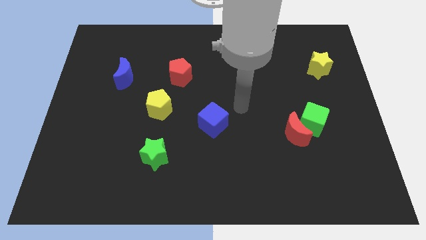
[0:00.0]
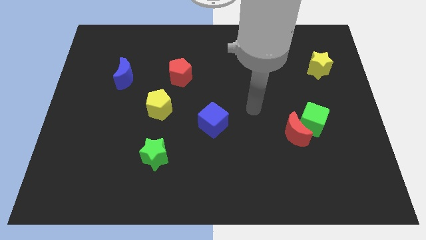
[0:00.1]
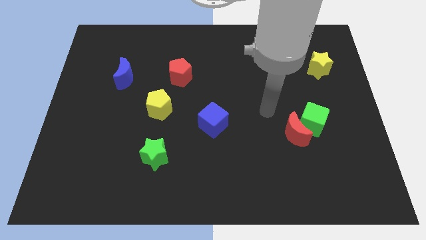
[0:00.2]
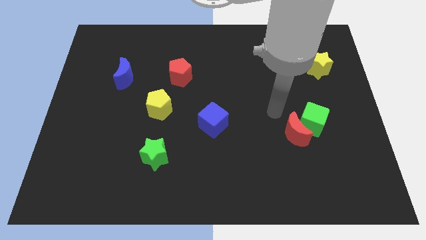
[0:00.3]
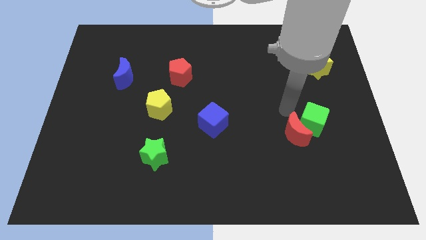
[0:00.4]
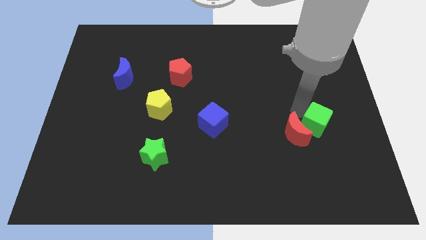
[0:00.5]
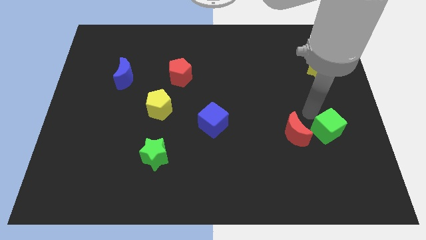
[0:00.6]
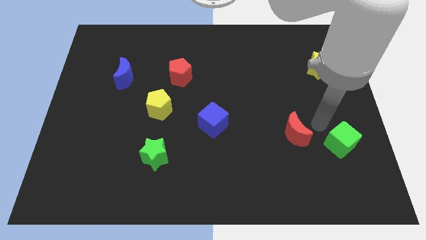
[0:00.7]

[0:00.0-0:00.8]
separate the red moon from the green cube

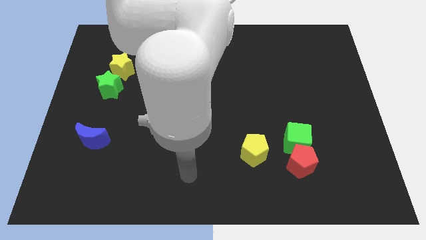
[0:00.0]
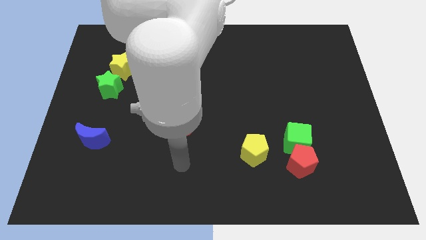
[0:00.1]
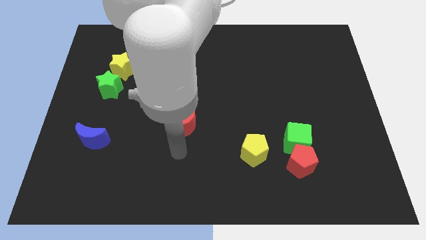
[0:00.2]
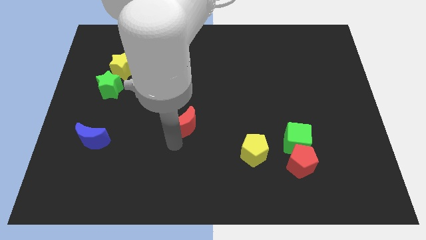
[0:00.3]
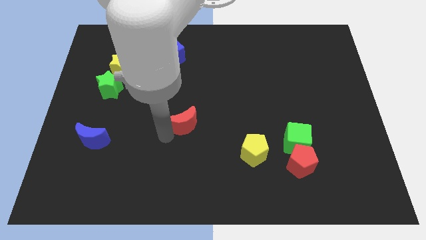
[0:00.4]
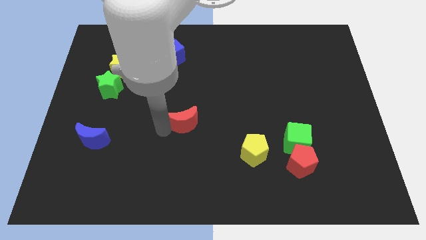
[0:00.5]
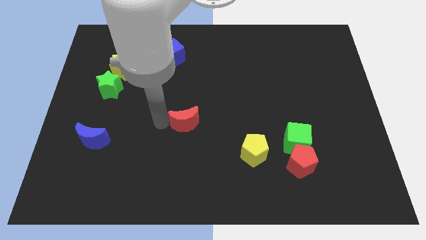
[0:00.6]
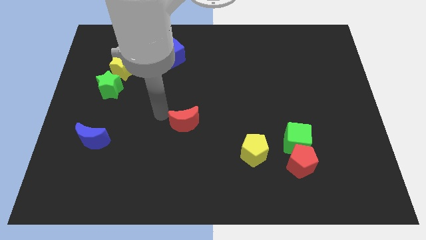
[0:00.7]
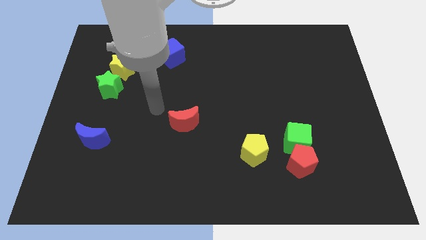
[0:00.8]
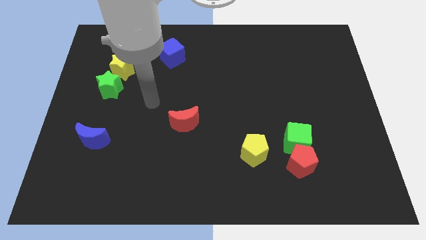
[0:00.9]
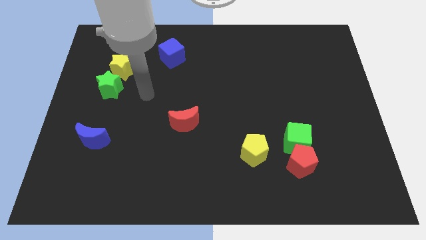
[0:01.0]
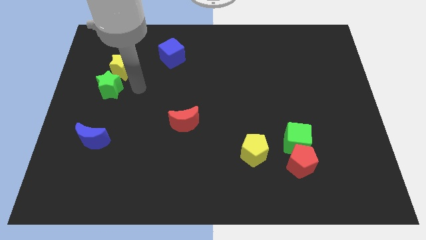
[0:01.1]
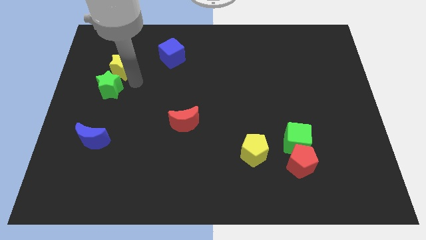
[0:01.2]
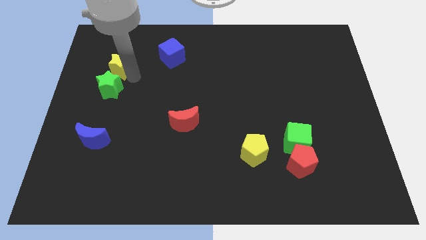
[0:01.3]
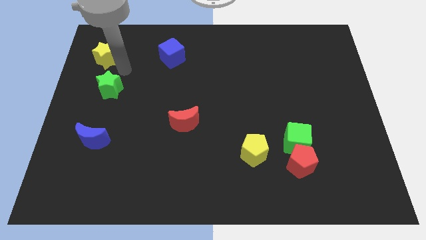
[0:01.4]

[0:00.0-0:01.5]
pull the green star apart from the yellow star

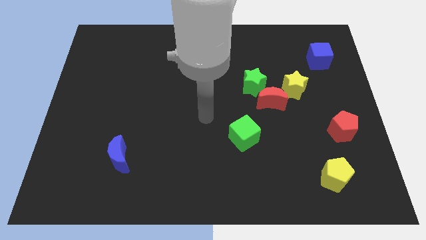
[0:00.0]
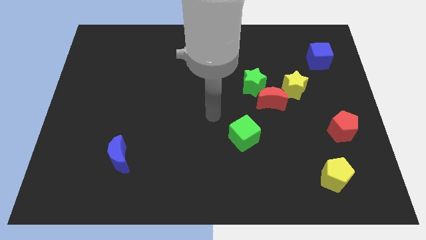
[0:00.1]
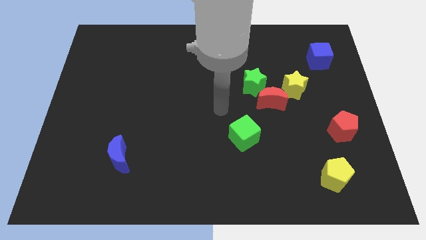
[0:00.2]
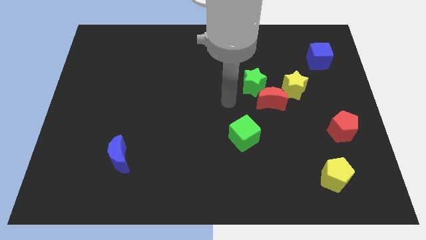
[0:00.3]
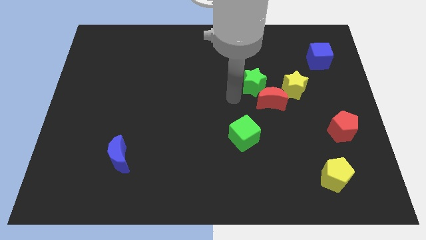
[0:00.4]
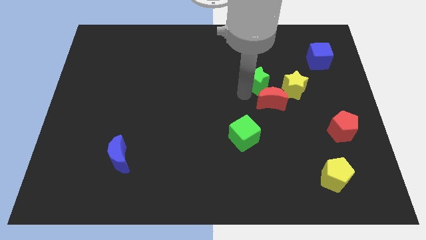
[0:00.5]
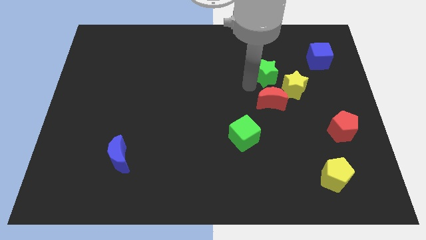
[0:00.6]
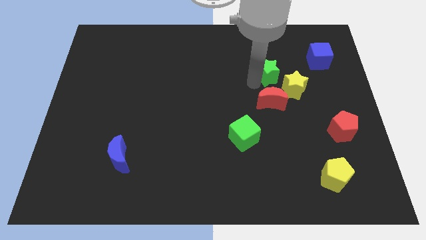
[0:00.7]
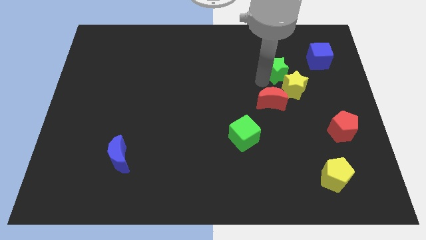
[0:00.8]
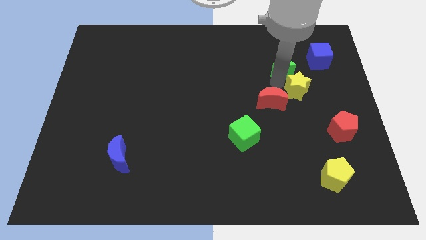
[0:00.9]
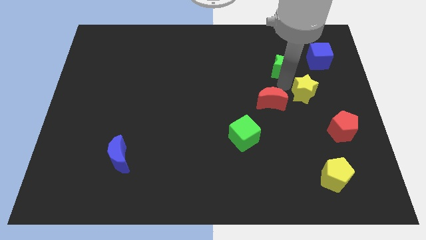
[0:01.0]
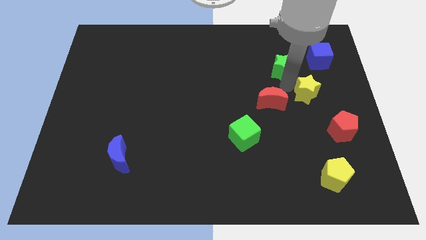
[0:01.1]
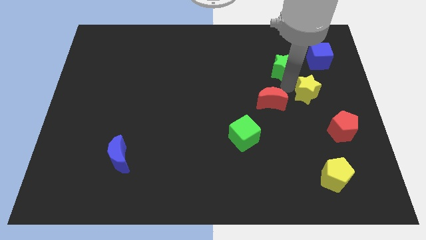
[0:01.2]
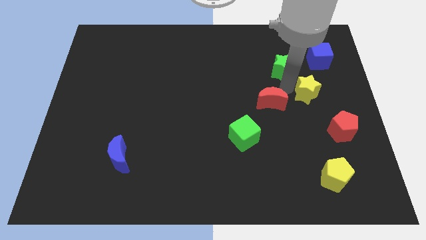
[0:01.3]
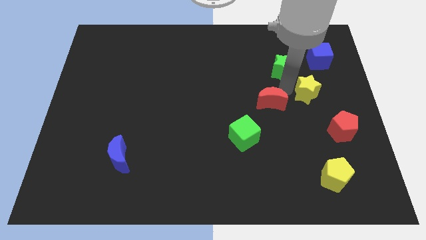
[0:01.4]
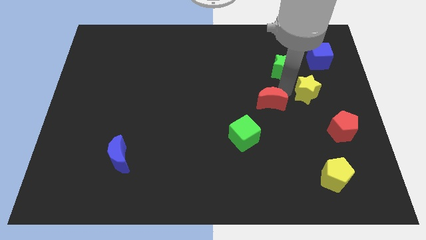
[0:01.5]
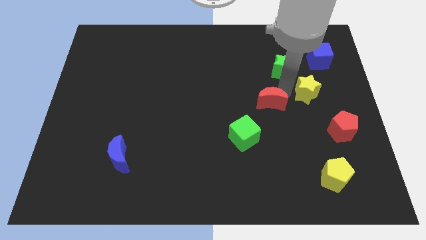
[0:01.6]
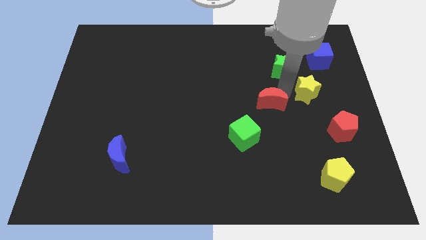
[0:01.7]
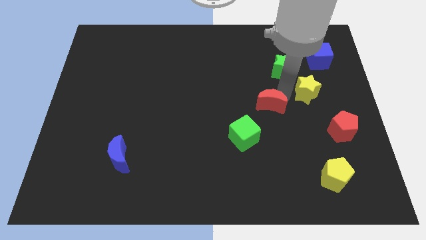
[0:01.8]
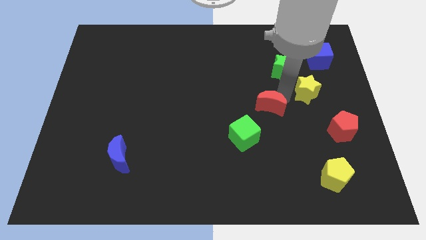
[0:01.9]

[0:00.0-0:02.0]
move the red moon away from the green star and yellow star

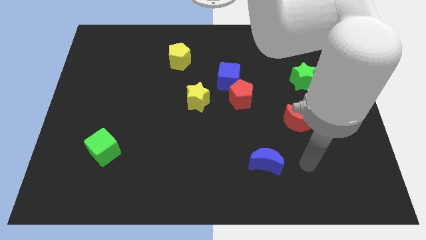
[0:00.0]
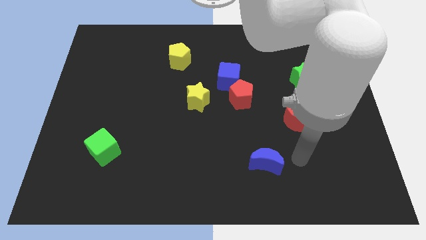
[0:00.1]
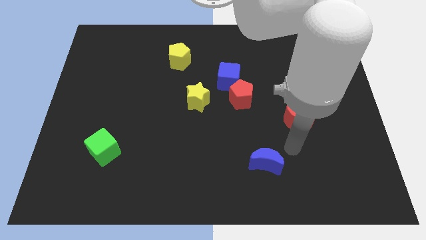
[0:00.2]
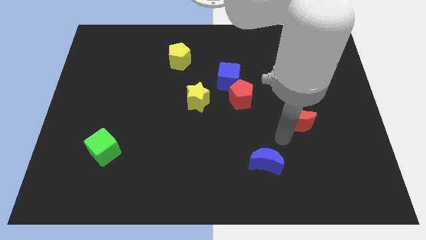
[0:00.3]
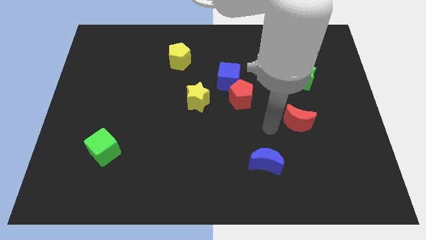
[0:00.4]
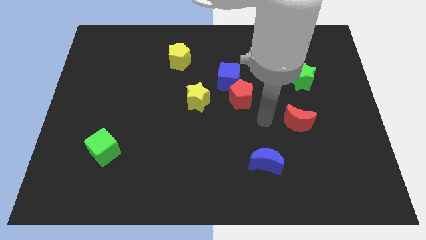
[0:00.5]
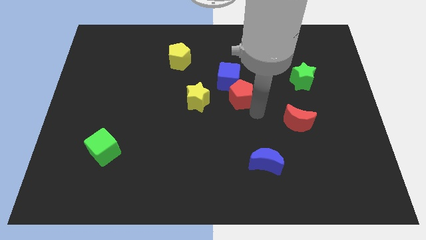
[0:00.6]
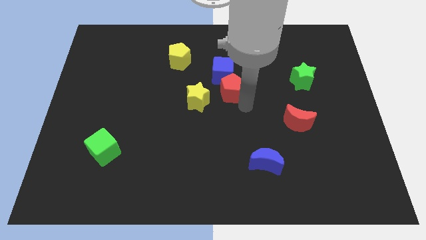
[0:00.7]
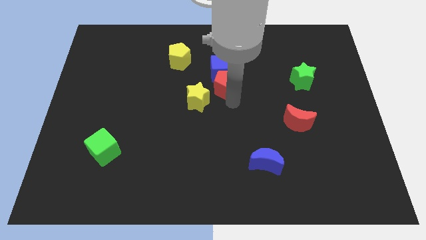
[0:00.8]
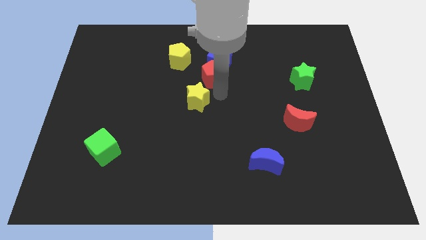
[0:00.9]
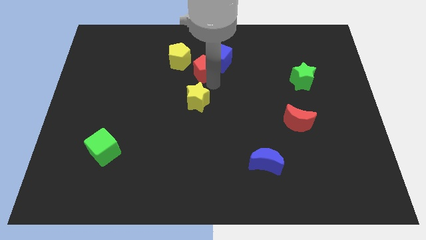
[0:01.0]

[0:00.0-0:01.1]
move the blue cube away from the red pentagon and yellow star

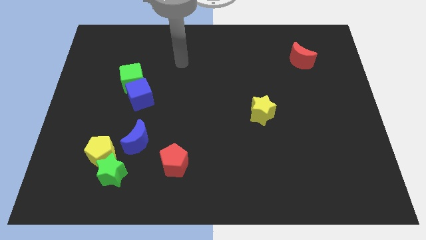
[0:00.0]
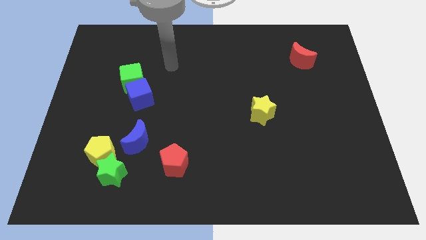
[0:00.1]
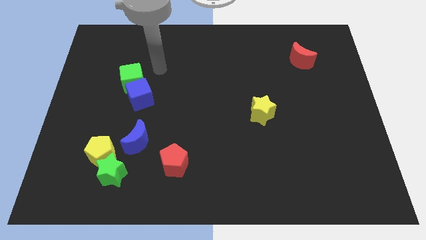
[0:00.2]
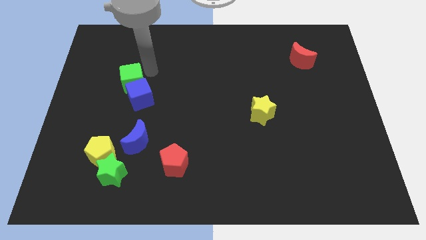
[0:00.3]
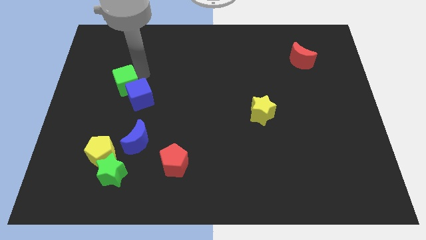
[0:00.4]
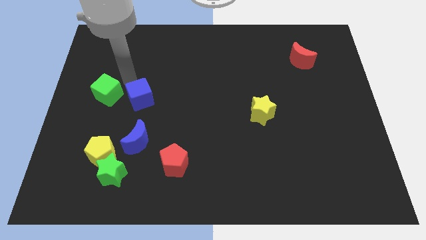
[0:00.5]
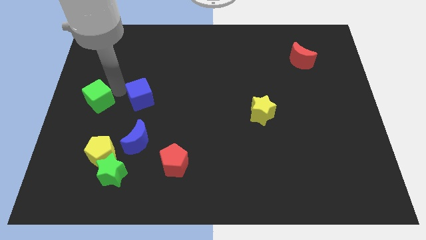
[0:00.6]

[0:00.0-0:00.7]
separate the blue cube from the green cube

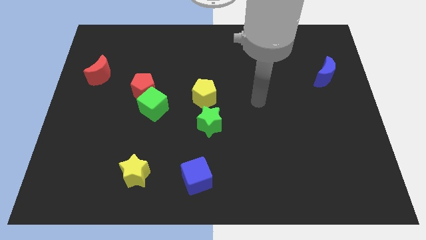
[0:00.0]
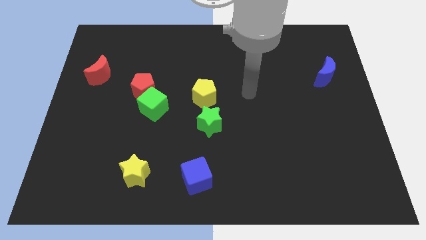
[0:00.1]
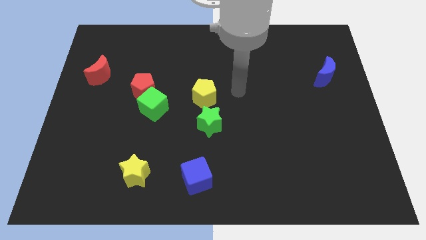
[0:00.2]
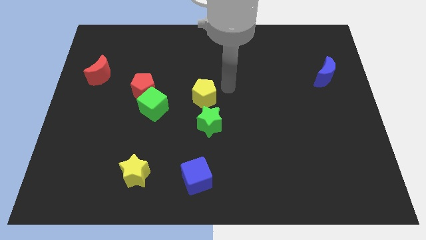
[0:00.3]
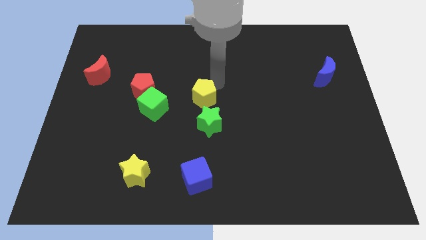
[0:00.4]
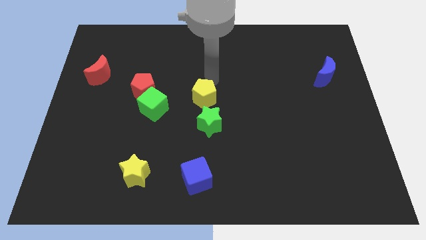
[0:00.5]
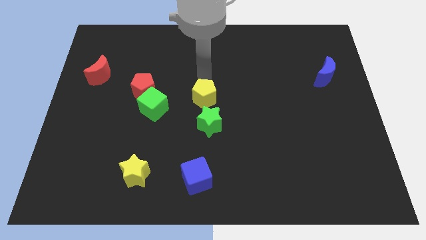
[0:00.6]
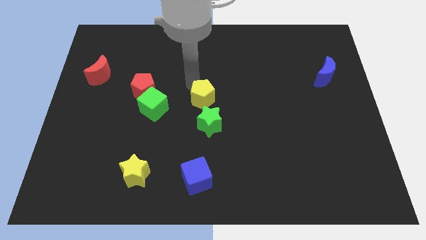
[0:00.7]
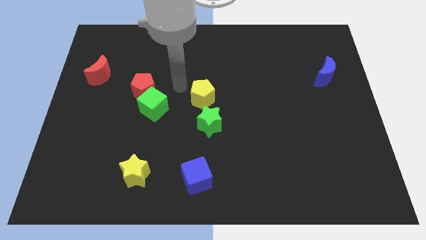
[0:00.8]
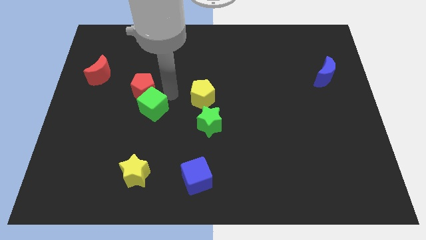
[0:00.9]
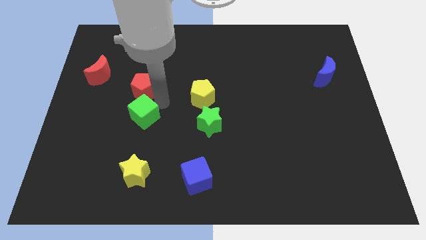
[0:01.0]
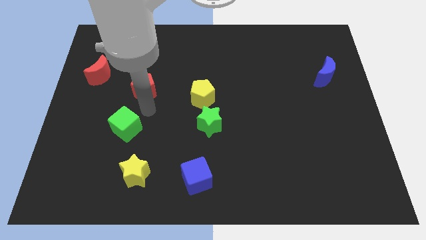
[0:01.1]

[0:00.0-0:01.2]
move the red pentagon away from the green cube

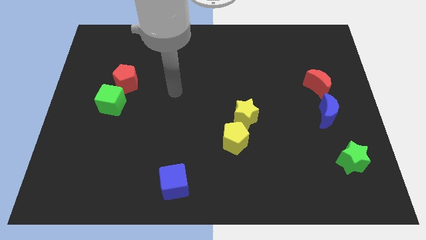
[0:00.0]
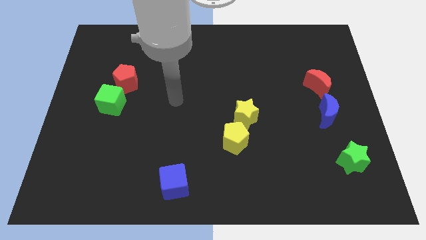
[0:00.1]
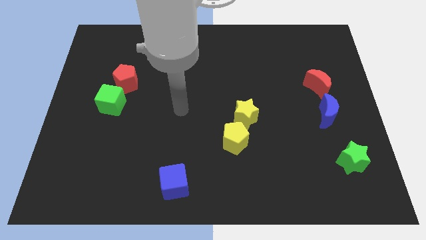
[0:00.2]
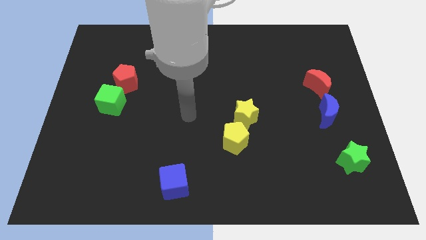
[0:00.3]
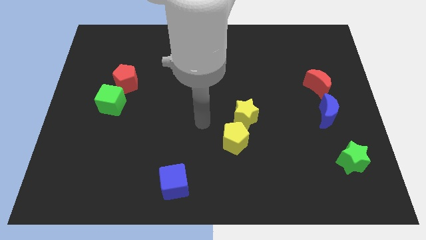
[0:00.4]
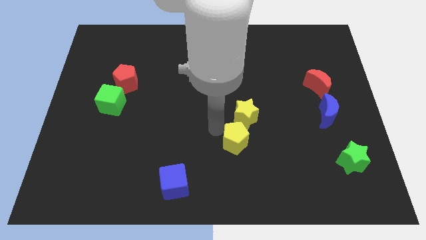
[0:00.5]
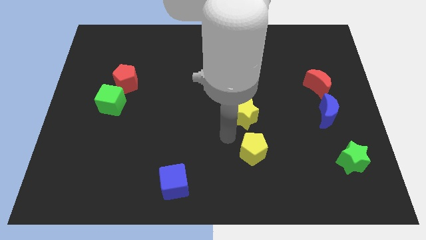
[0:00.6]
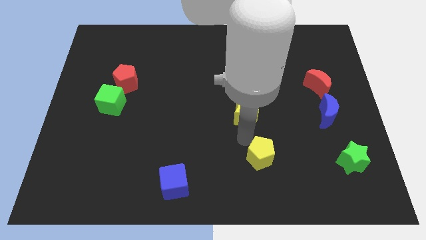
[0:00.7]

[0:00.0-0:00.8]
separate the yellow star from the yellow pentagon

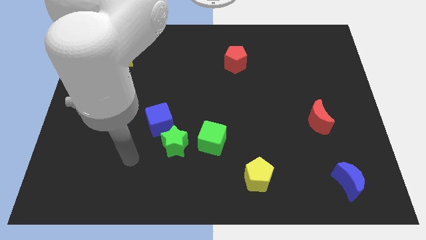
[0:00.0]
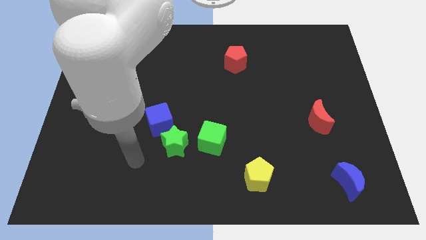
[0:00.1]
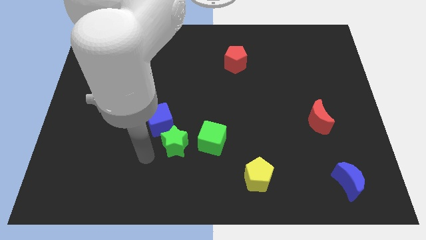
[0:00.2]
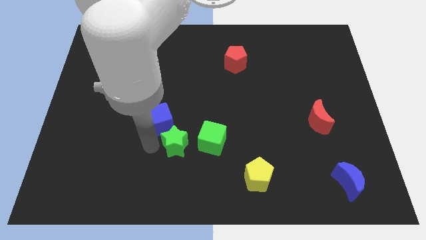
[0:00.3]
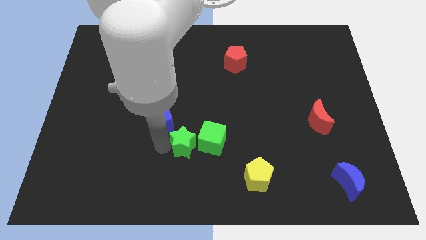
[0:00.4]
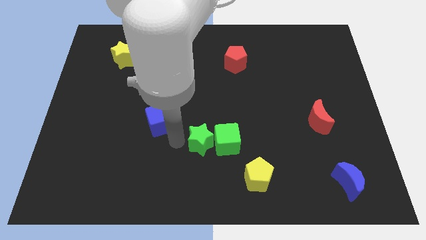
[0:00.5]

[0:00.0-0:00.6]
move the blue cube away from the green star

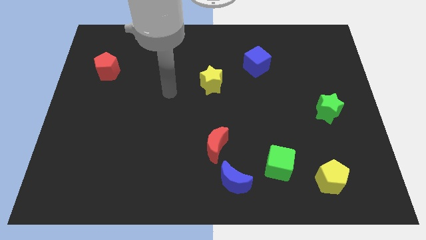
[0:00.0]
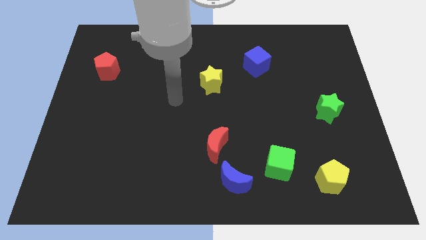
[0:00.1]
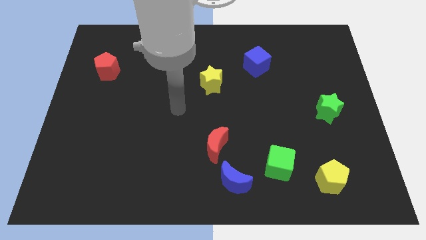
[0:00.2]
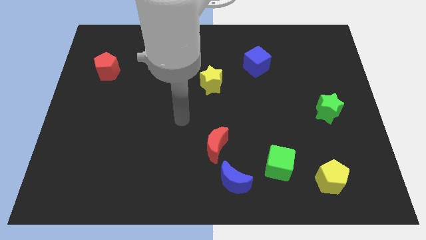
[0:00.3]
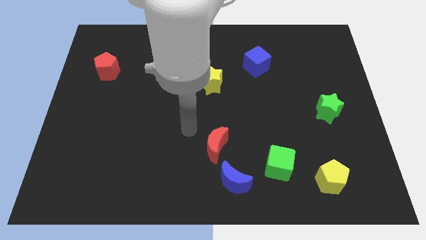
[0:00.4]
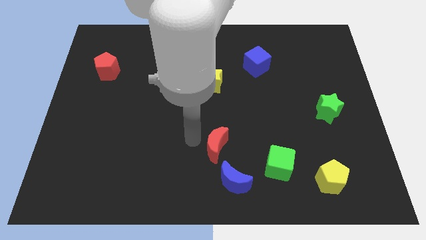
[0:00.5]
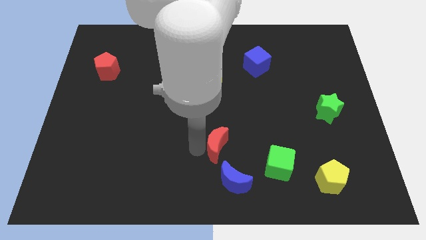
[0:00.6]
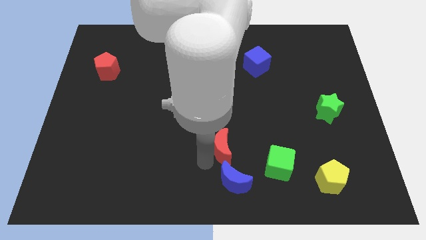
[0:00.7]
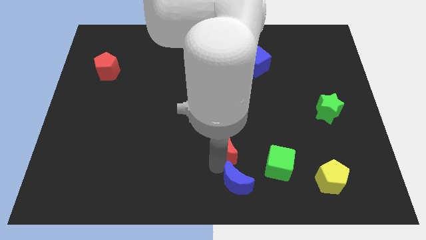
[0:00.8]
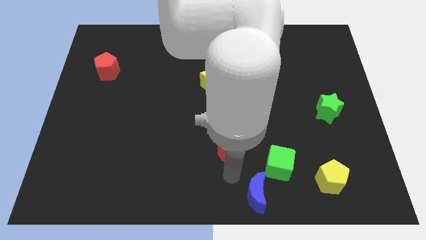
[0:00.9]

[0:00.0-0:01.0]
separate the red moon from the blue moon
